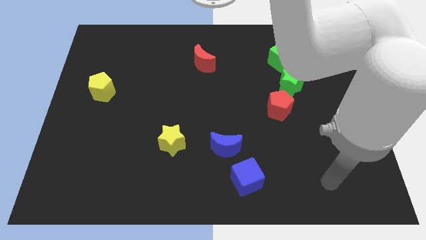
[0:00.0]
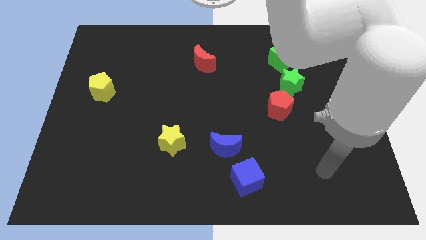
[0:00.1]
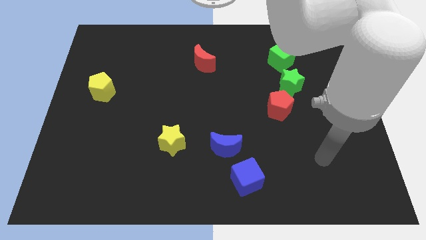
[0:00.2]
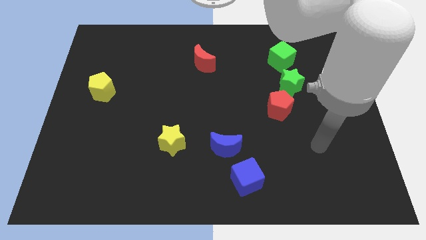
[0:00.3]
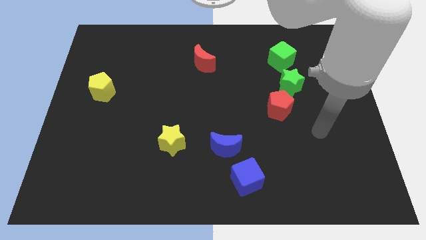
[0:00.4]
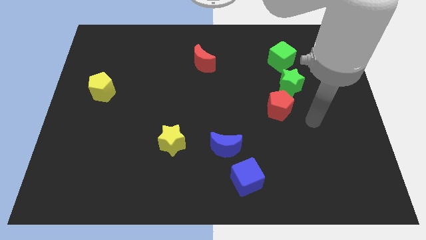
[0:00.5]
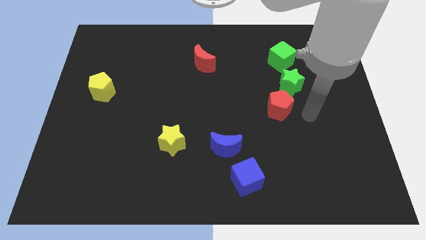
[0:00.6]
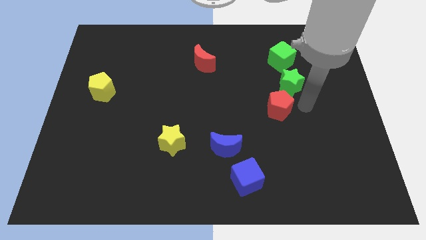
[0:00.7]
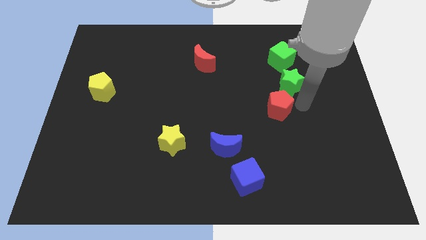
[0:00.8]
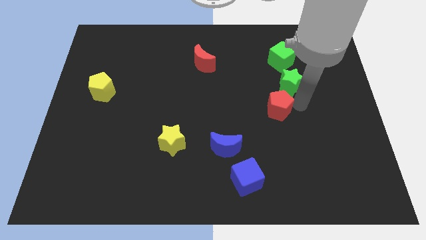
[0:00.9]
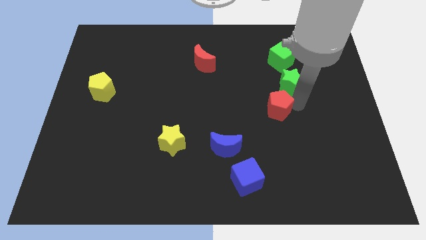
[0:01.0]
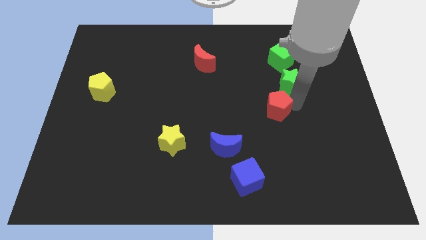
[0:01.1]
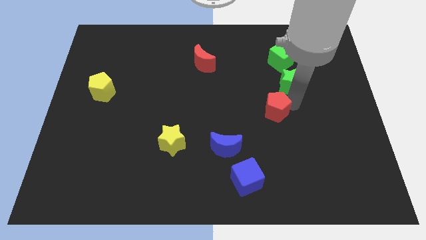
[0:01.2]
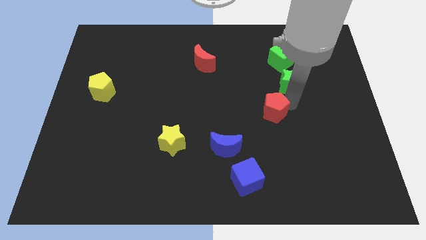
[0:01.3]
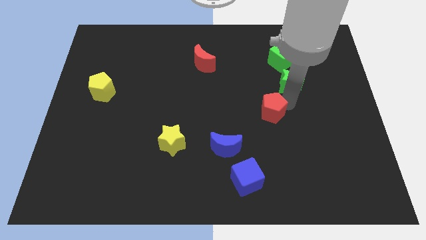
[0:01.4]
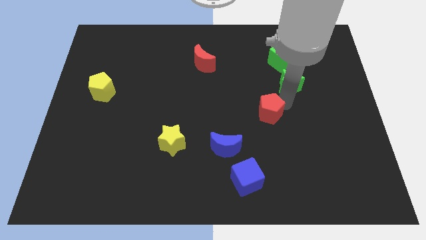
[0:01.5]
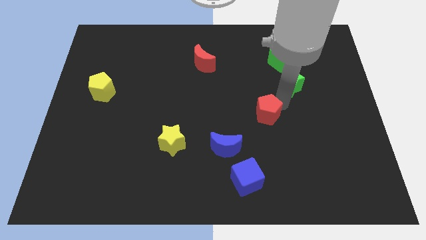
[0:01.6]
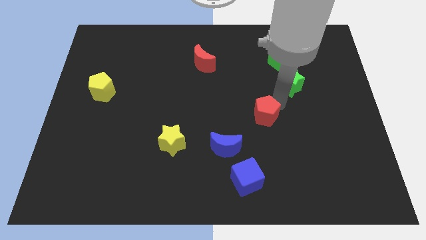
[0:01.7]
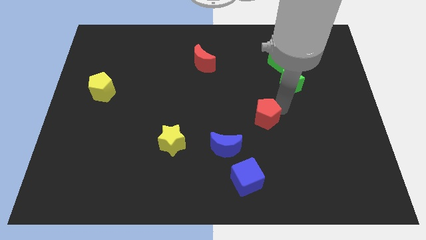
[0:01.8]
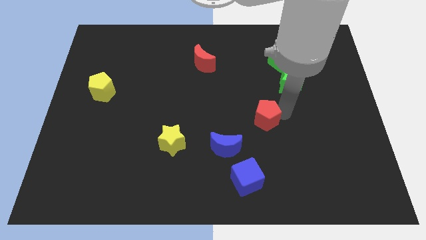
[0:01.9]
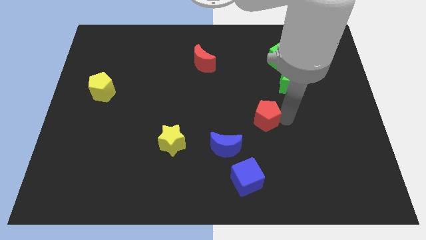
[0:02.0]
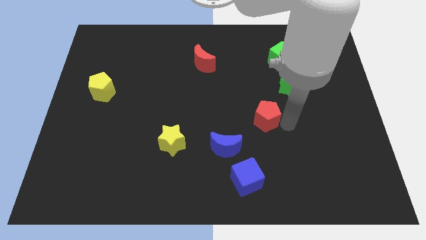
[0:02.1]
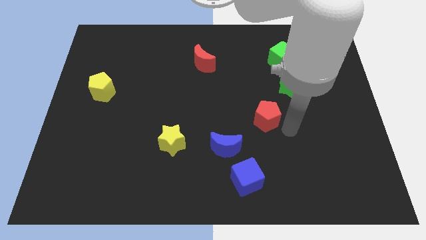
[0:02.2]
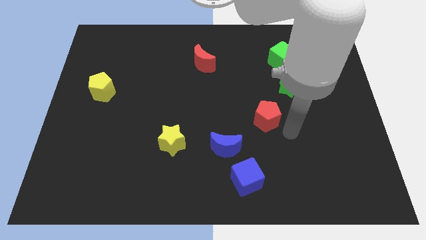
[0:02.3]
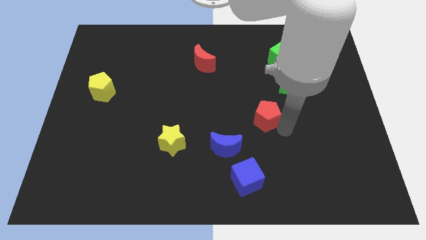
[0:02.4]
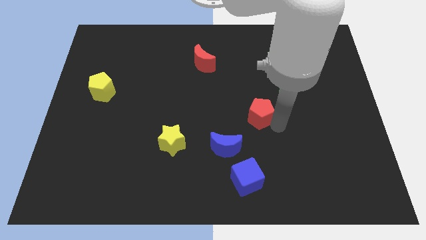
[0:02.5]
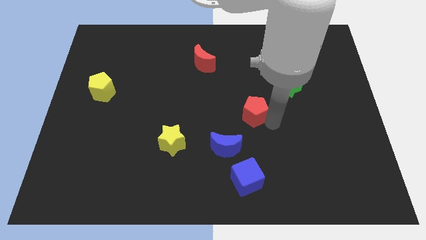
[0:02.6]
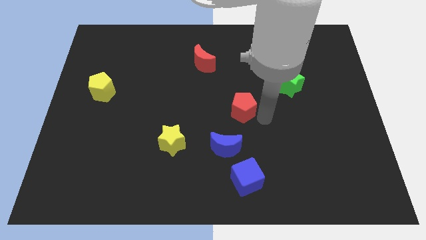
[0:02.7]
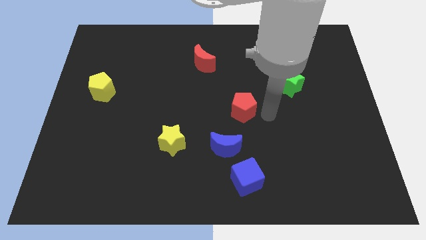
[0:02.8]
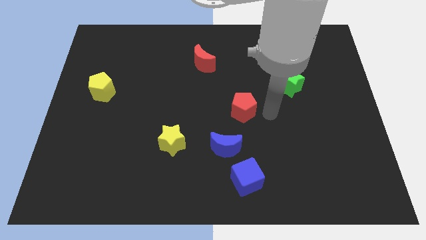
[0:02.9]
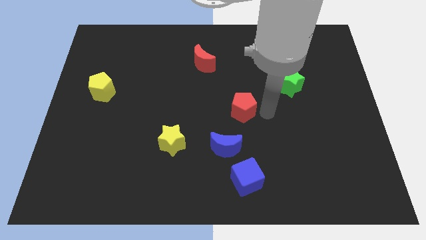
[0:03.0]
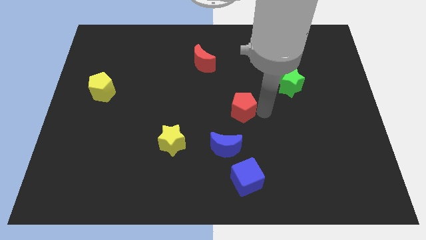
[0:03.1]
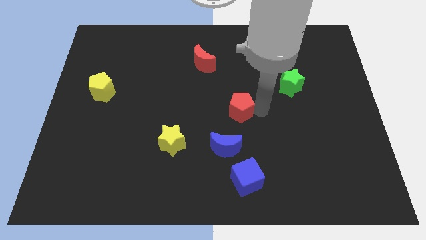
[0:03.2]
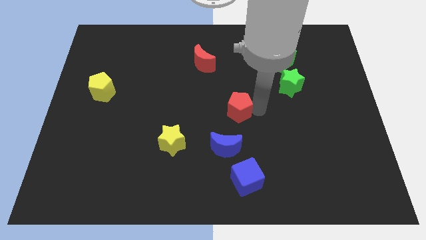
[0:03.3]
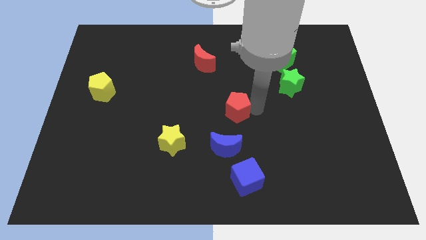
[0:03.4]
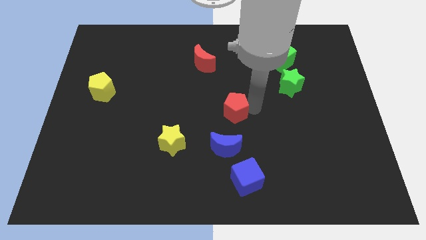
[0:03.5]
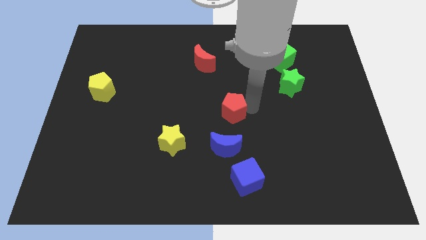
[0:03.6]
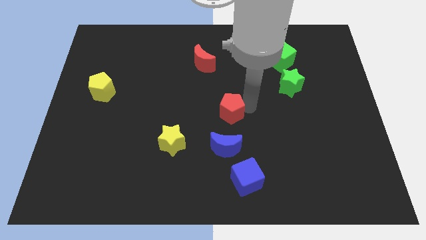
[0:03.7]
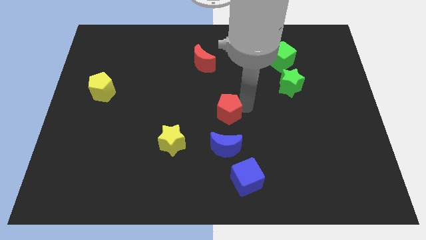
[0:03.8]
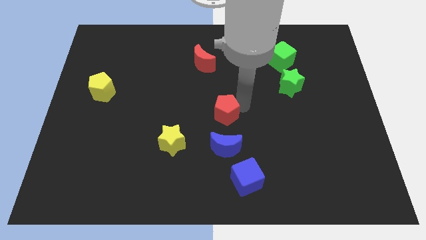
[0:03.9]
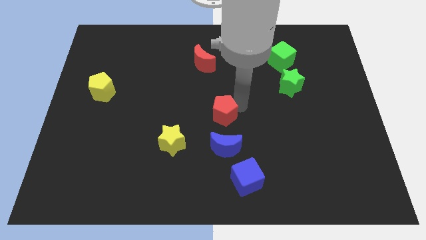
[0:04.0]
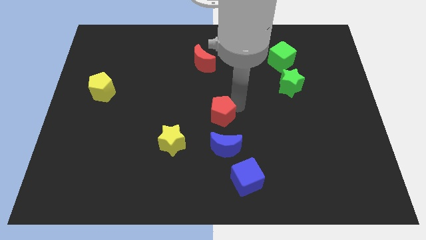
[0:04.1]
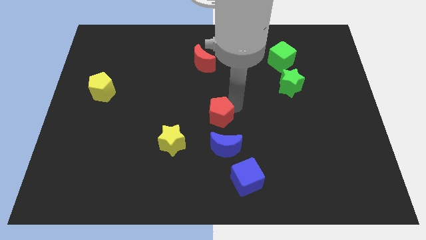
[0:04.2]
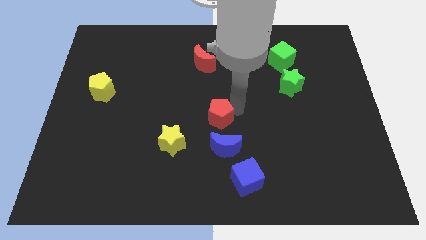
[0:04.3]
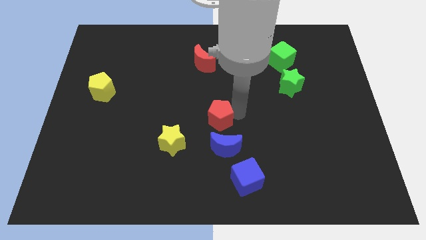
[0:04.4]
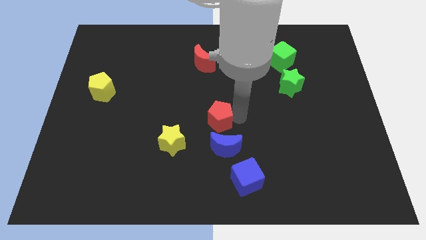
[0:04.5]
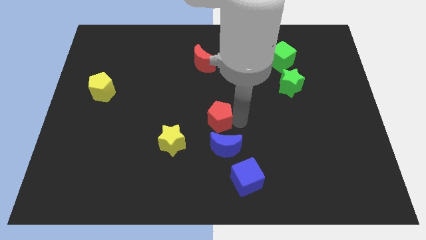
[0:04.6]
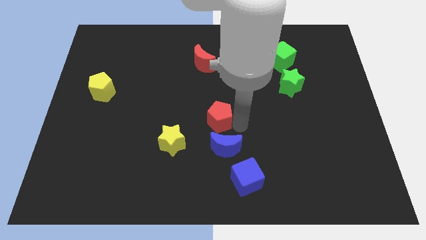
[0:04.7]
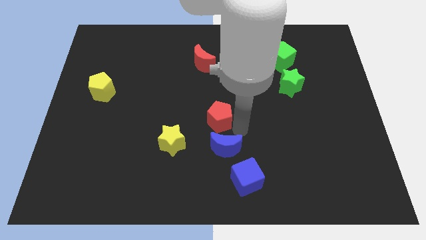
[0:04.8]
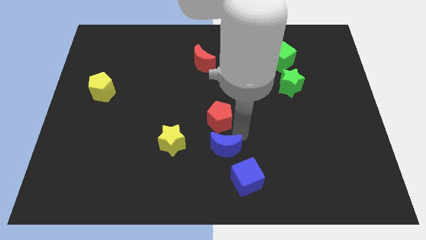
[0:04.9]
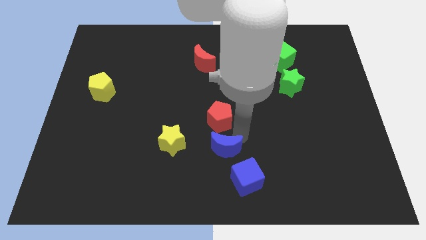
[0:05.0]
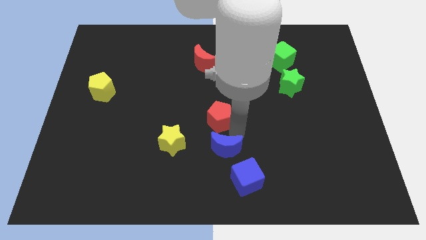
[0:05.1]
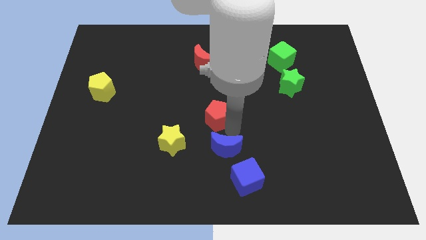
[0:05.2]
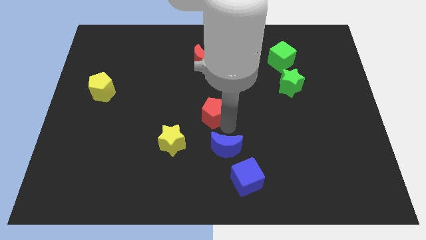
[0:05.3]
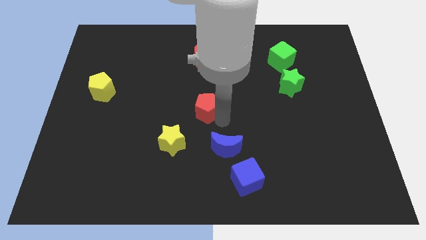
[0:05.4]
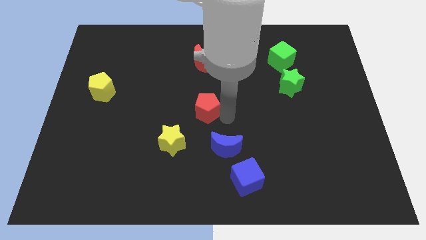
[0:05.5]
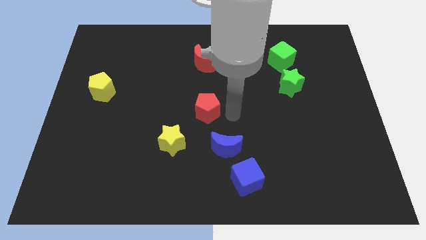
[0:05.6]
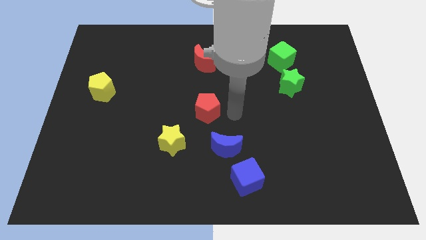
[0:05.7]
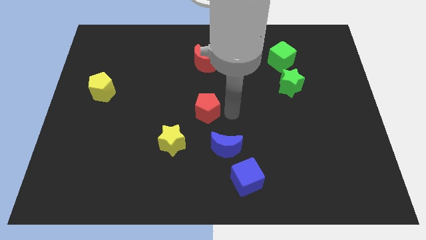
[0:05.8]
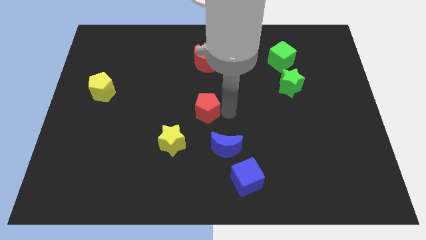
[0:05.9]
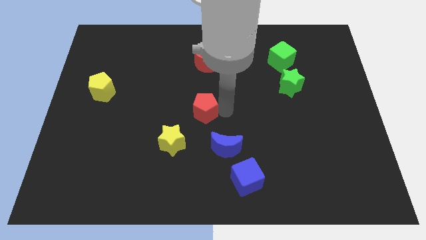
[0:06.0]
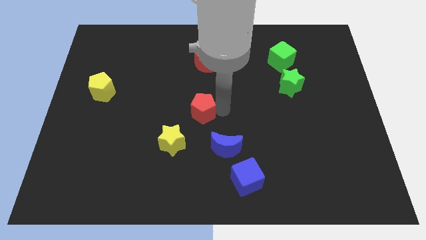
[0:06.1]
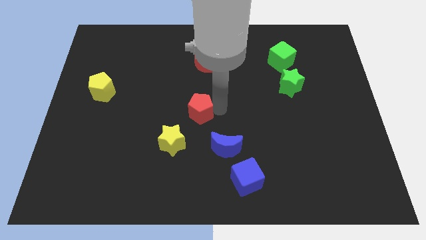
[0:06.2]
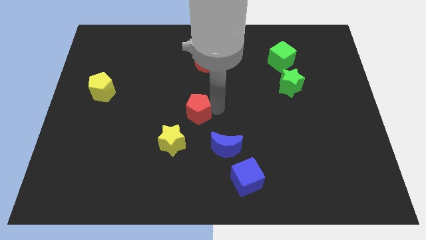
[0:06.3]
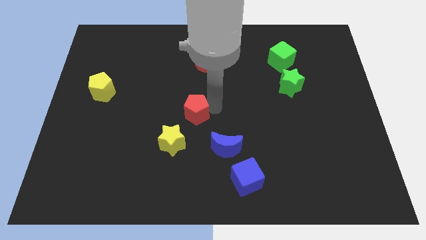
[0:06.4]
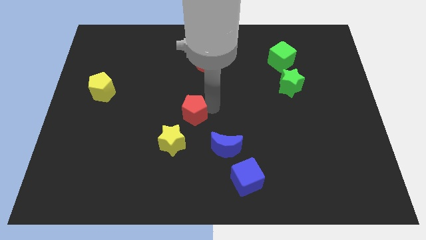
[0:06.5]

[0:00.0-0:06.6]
move the red pentagon to the left

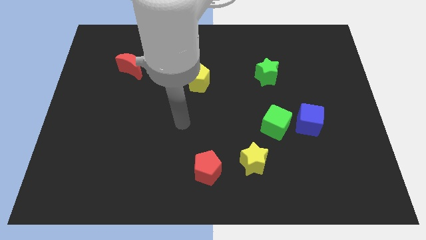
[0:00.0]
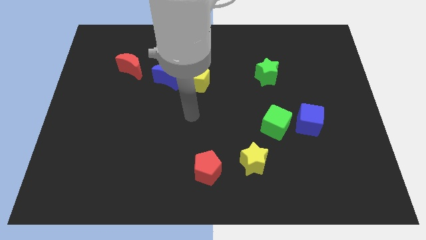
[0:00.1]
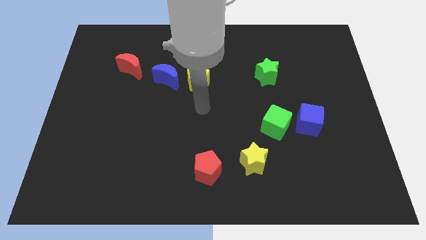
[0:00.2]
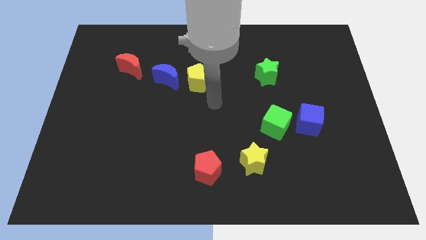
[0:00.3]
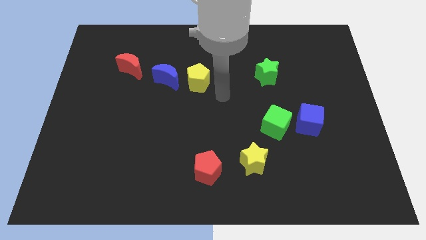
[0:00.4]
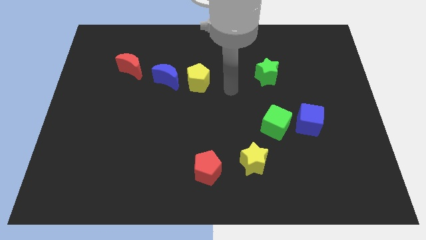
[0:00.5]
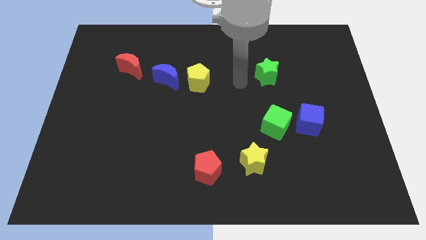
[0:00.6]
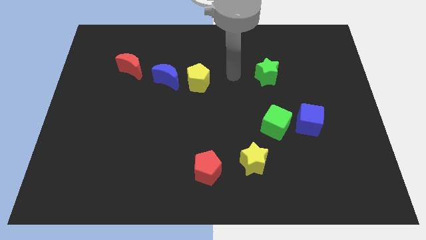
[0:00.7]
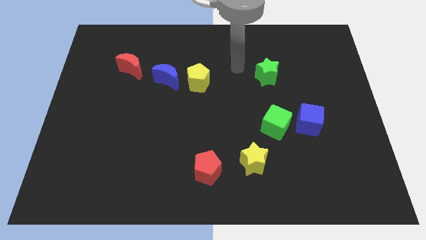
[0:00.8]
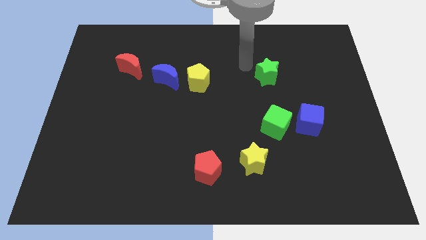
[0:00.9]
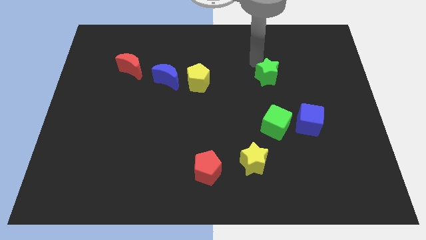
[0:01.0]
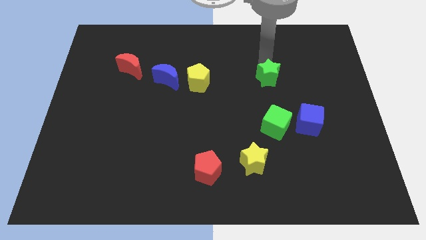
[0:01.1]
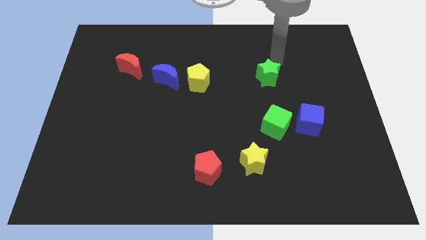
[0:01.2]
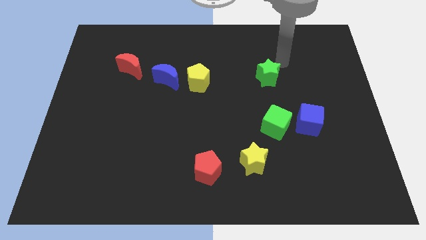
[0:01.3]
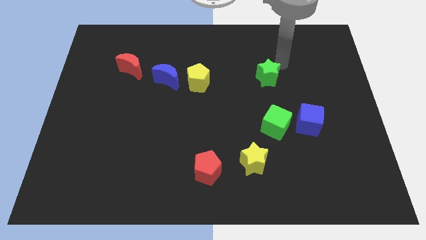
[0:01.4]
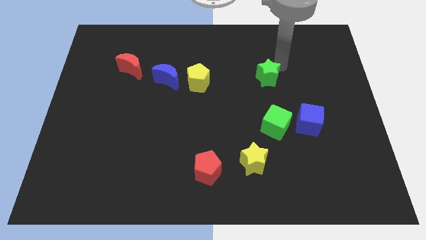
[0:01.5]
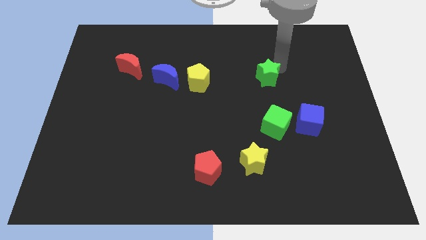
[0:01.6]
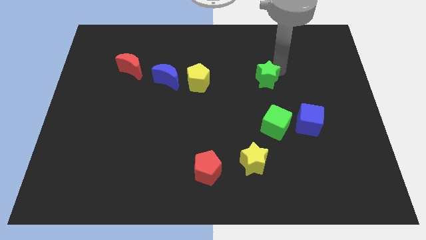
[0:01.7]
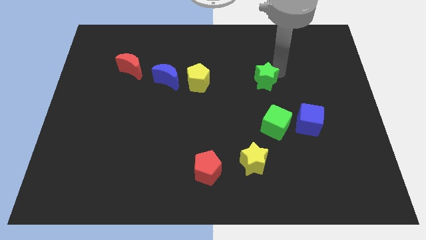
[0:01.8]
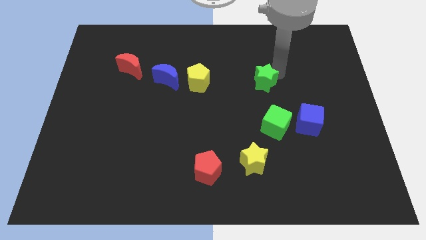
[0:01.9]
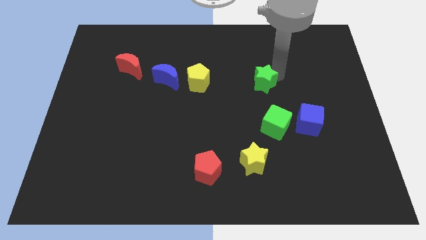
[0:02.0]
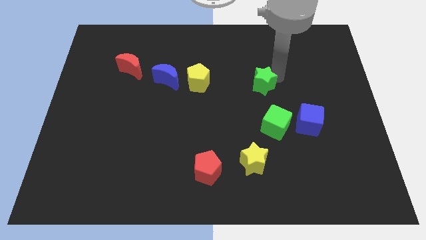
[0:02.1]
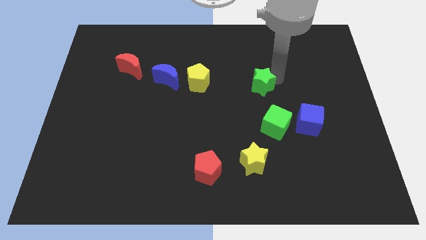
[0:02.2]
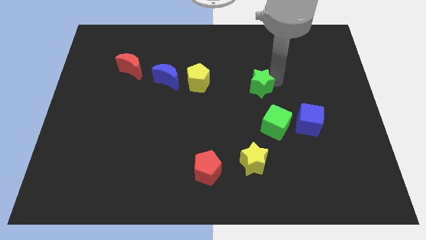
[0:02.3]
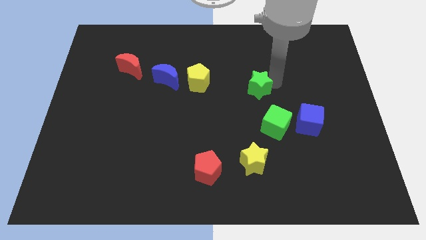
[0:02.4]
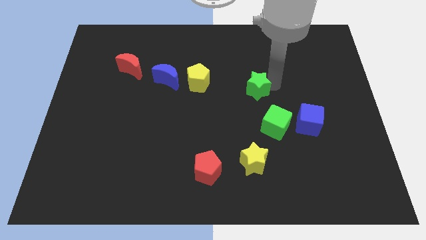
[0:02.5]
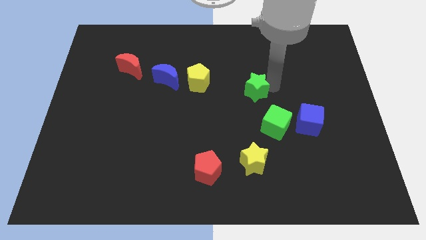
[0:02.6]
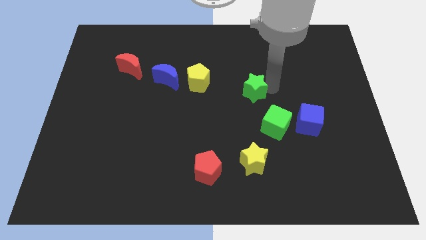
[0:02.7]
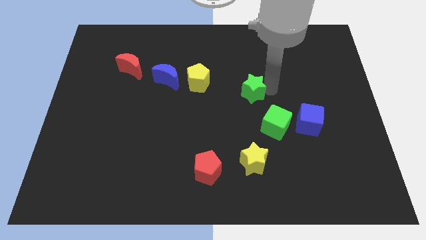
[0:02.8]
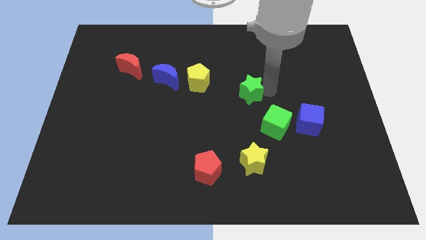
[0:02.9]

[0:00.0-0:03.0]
slightly move the green star downwards and then left
